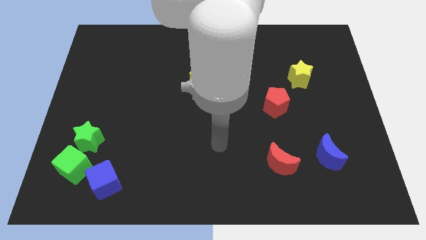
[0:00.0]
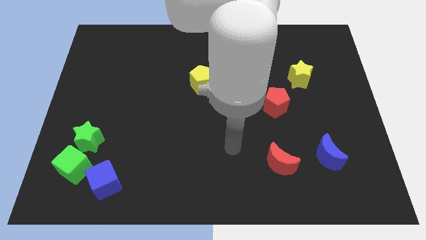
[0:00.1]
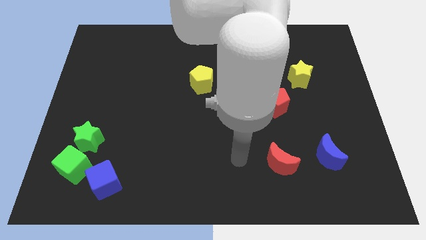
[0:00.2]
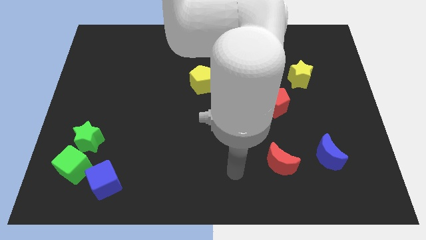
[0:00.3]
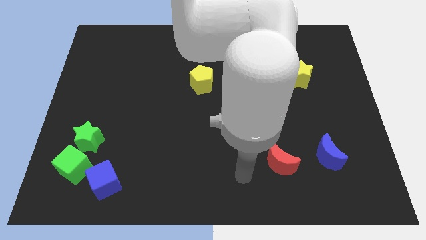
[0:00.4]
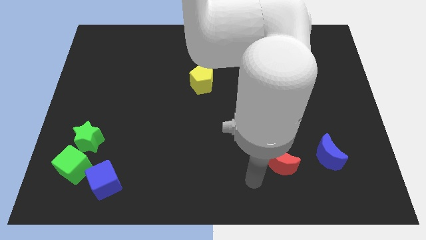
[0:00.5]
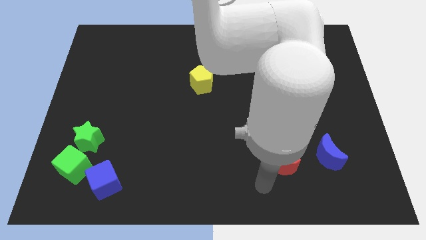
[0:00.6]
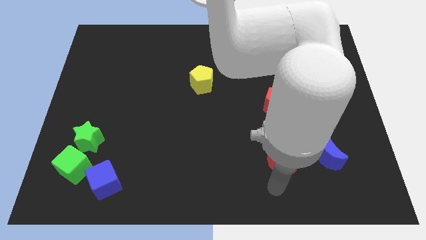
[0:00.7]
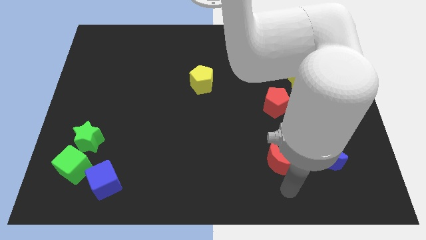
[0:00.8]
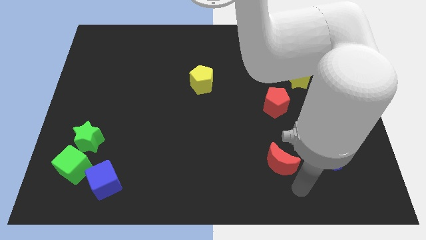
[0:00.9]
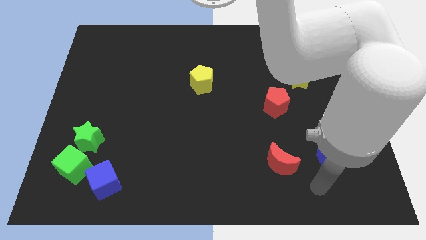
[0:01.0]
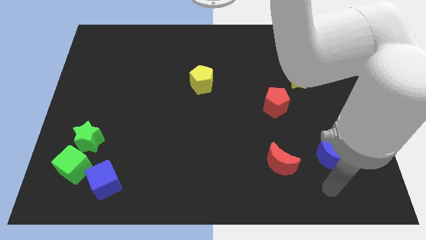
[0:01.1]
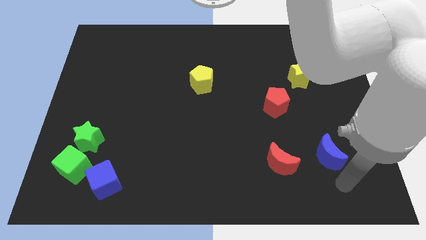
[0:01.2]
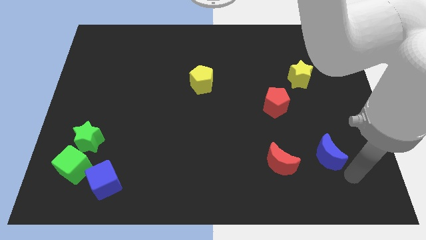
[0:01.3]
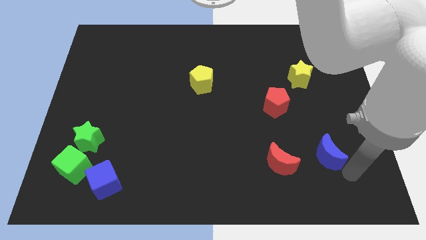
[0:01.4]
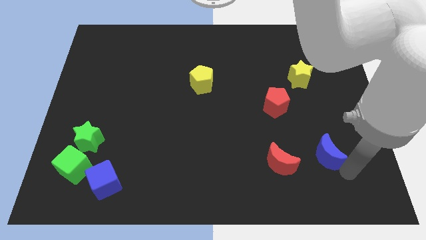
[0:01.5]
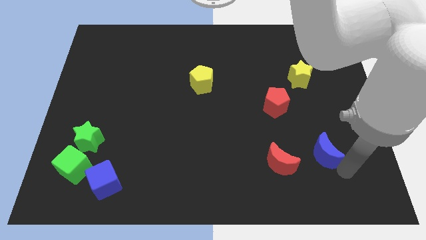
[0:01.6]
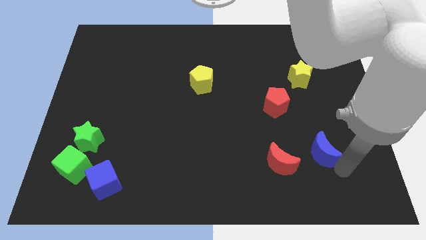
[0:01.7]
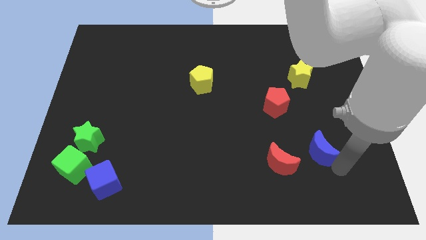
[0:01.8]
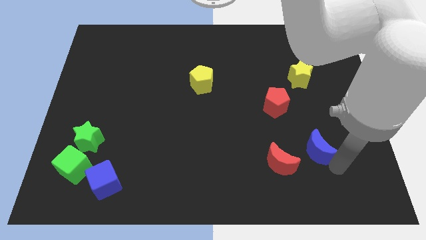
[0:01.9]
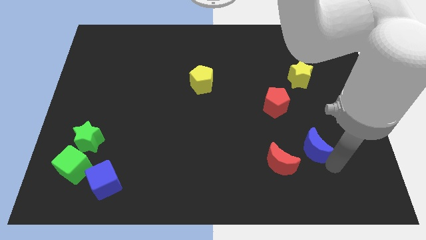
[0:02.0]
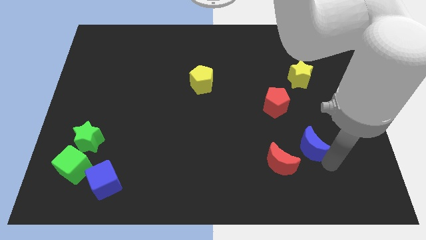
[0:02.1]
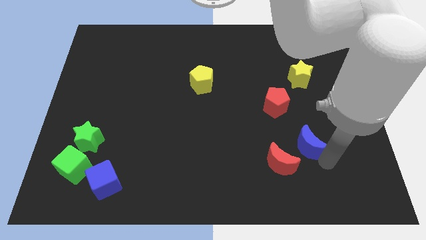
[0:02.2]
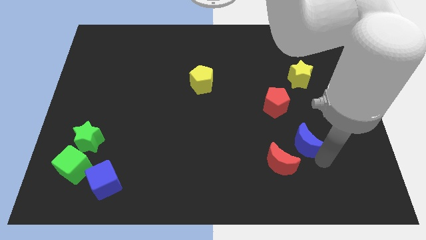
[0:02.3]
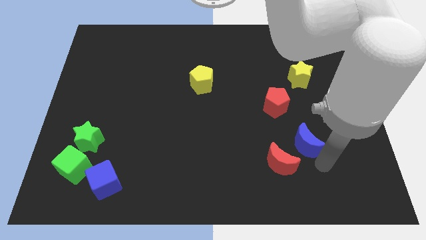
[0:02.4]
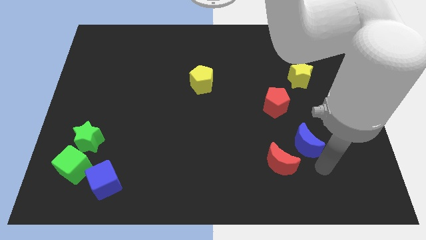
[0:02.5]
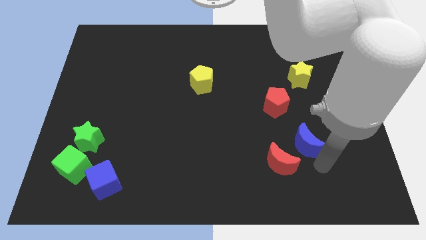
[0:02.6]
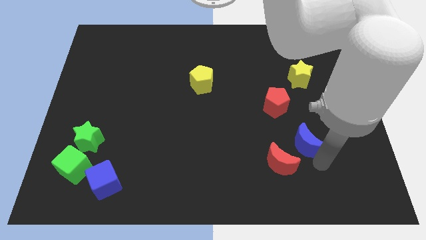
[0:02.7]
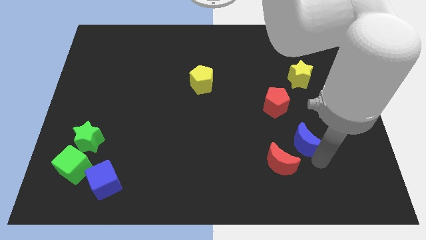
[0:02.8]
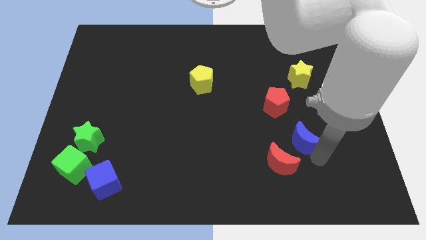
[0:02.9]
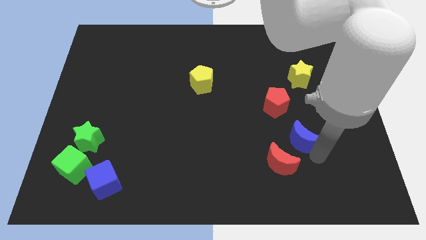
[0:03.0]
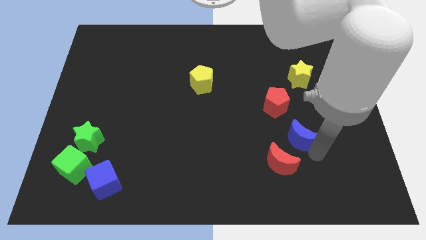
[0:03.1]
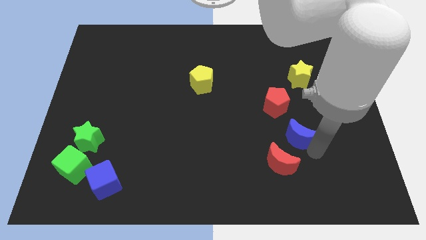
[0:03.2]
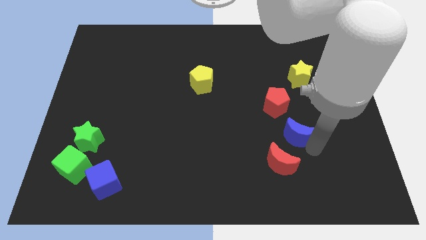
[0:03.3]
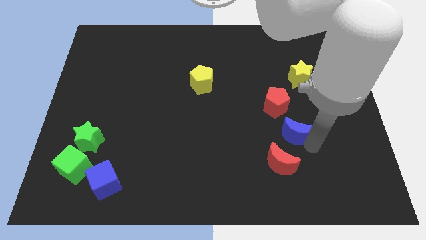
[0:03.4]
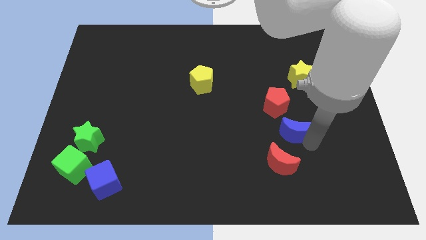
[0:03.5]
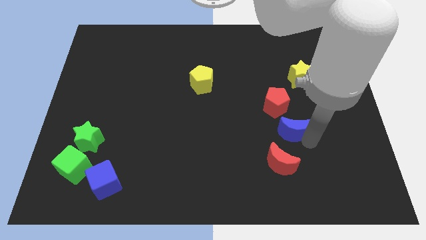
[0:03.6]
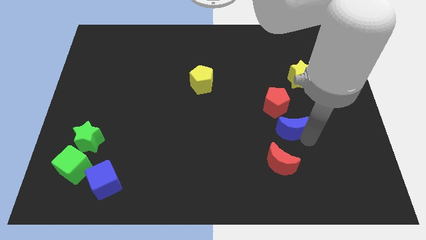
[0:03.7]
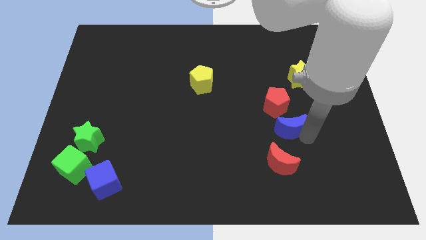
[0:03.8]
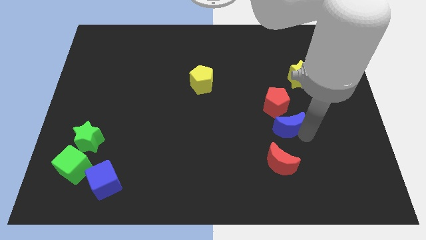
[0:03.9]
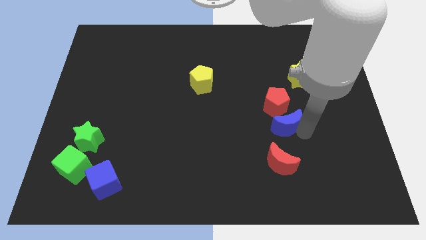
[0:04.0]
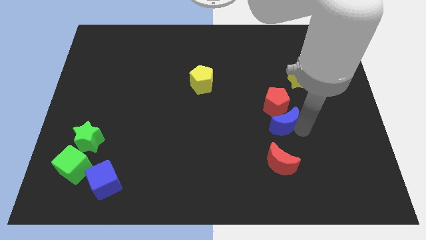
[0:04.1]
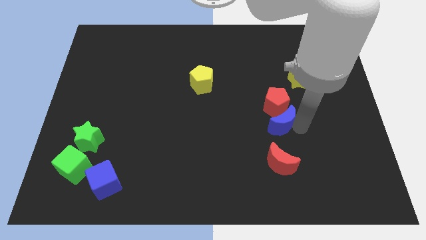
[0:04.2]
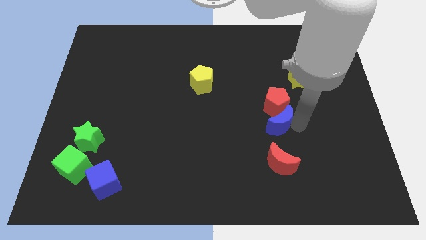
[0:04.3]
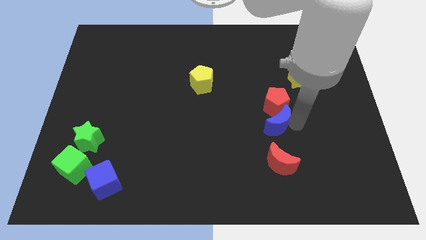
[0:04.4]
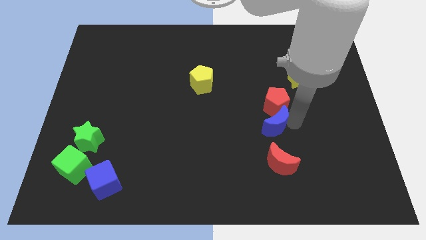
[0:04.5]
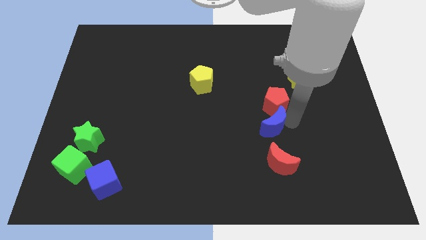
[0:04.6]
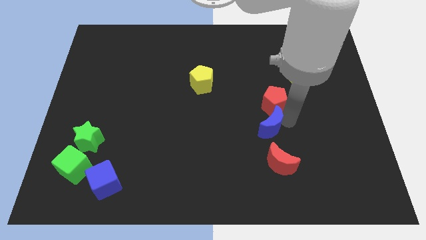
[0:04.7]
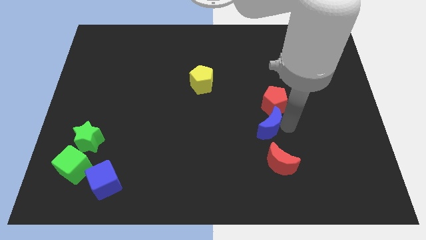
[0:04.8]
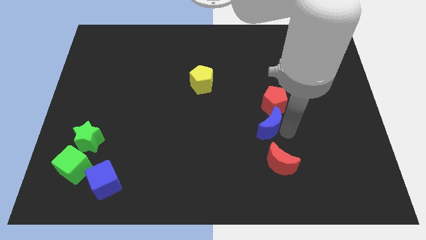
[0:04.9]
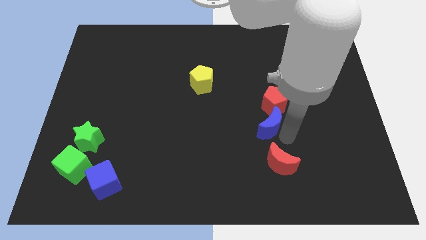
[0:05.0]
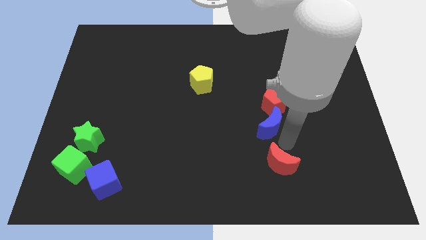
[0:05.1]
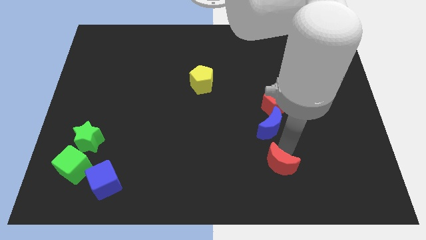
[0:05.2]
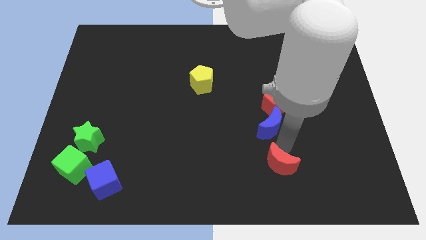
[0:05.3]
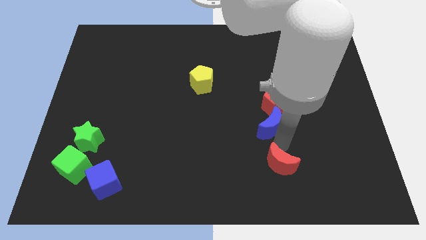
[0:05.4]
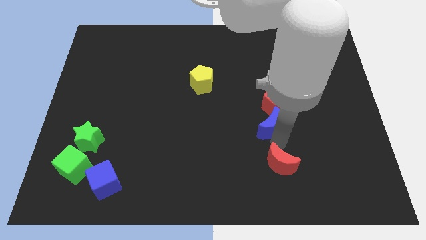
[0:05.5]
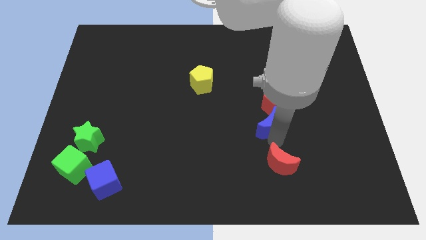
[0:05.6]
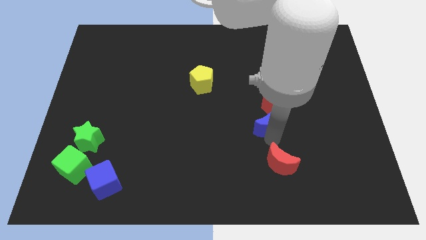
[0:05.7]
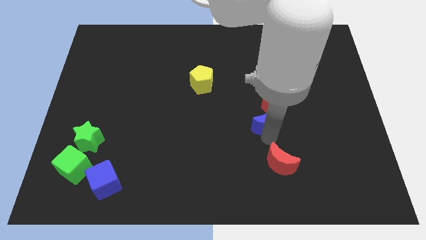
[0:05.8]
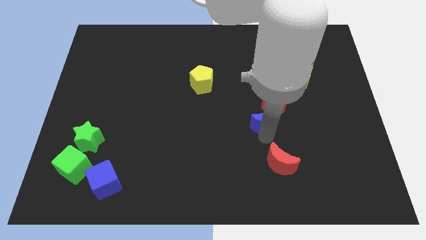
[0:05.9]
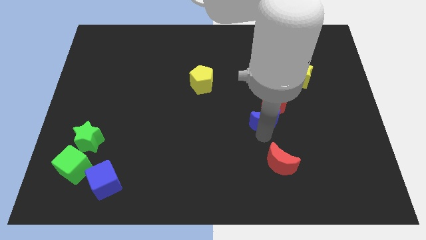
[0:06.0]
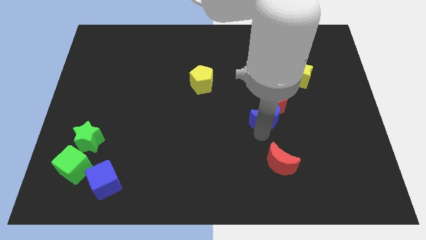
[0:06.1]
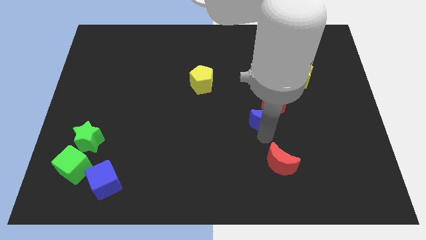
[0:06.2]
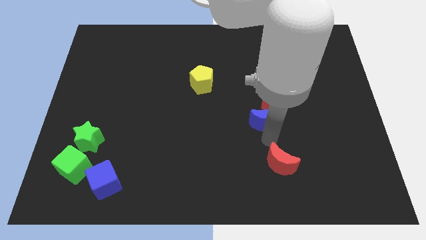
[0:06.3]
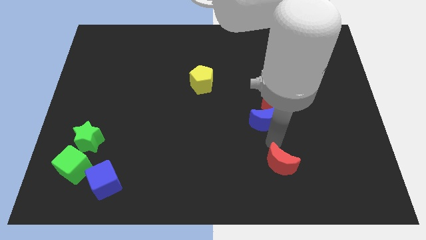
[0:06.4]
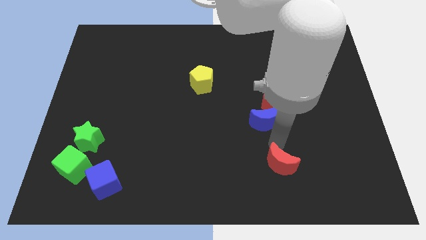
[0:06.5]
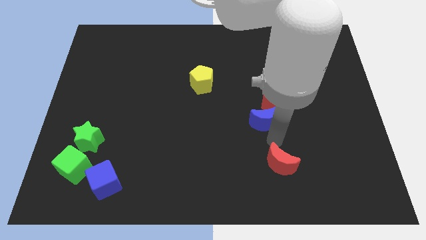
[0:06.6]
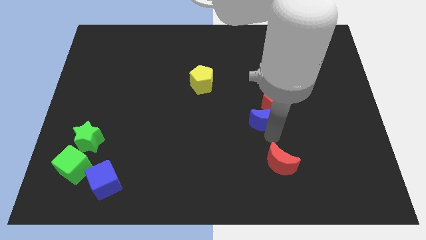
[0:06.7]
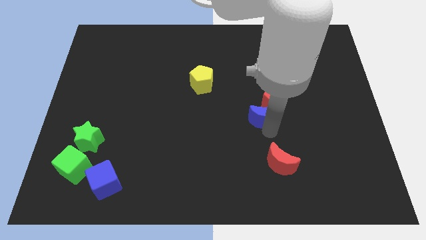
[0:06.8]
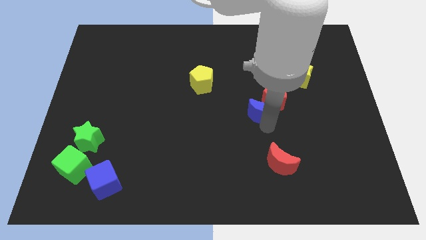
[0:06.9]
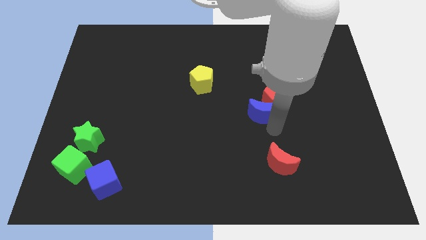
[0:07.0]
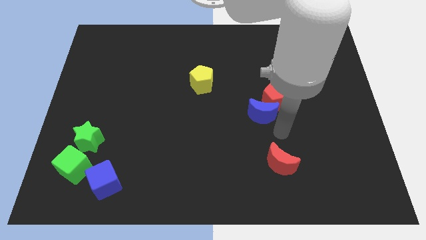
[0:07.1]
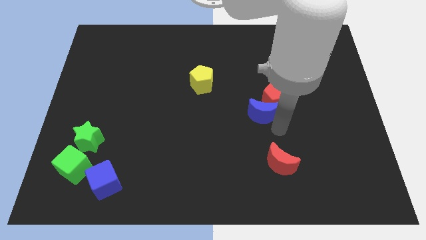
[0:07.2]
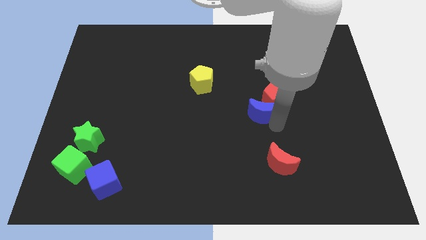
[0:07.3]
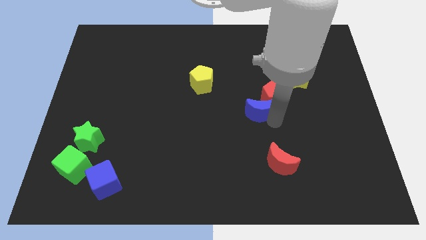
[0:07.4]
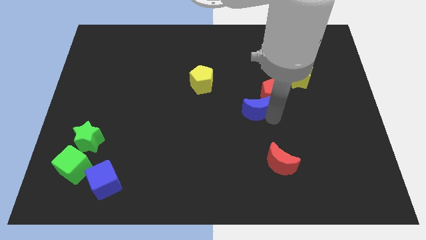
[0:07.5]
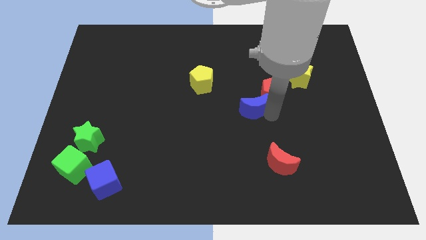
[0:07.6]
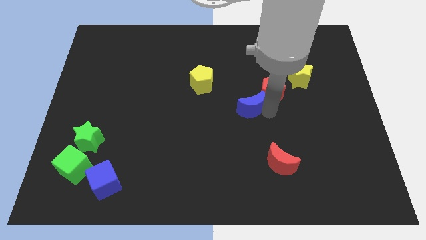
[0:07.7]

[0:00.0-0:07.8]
push the blue moon upwards and then left
